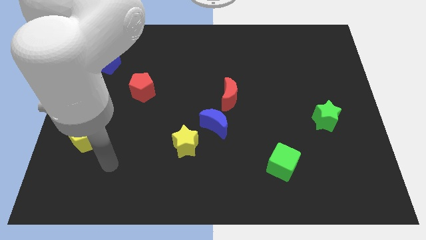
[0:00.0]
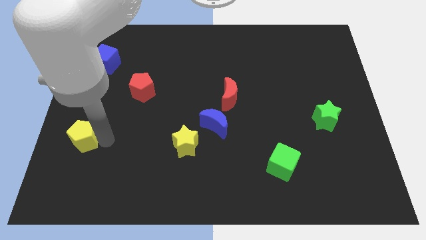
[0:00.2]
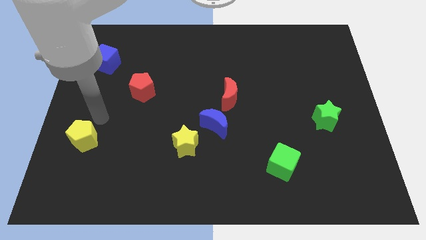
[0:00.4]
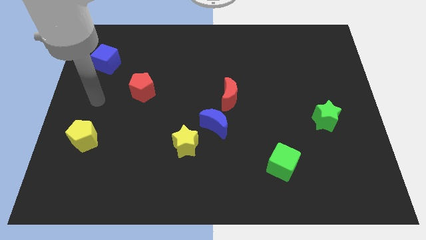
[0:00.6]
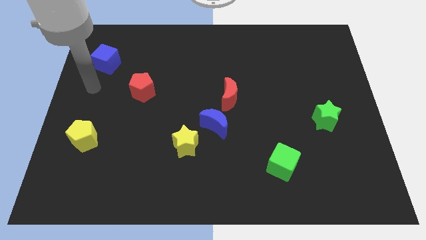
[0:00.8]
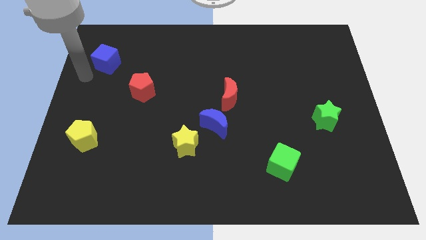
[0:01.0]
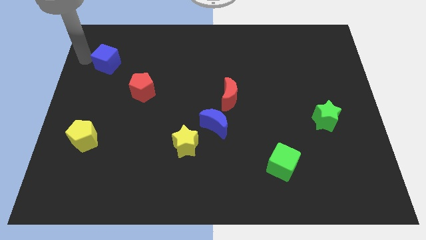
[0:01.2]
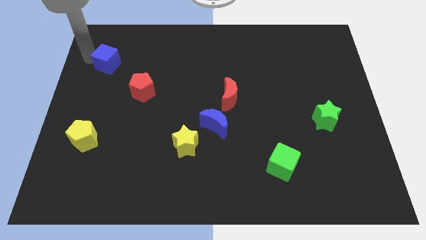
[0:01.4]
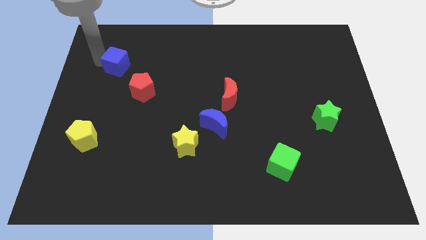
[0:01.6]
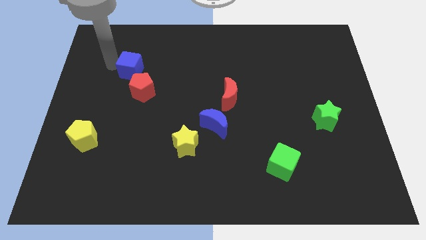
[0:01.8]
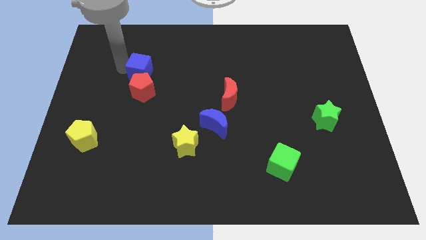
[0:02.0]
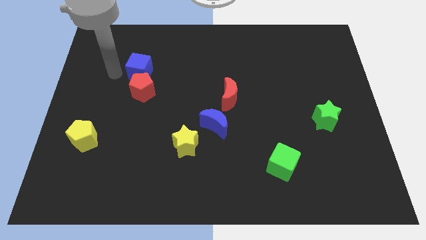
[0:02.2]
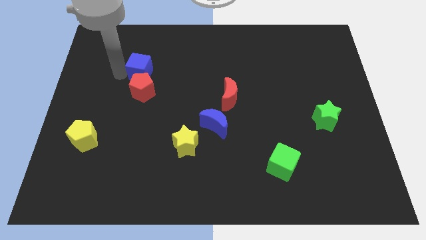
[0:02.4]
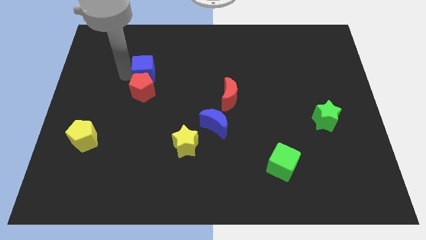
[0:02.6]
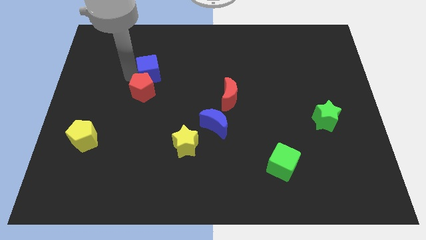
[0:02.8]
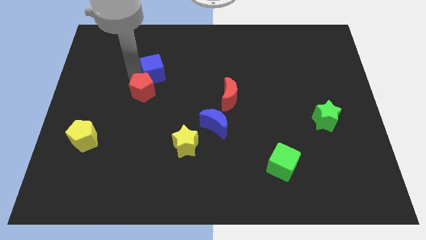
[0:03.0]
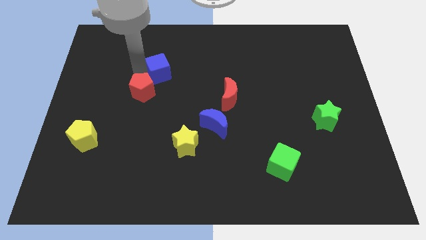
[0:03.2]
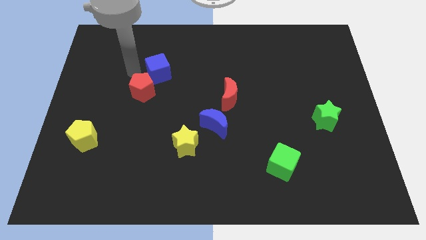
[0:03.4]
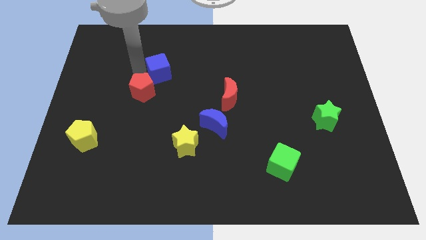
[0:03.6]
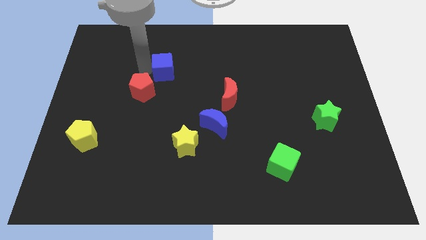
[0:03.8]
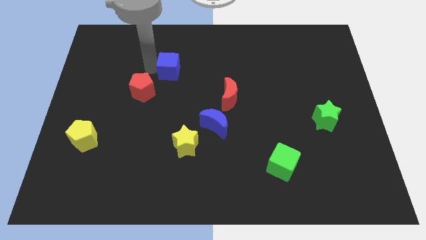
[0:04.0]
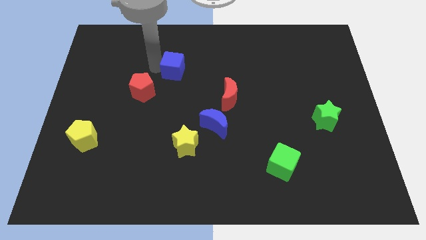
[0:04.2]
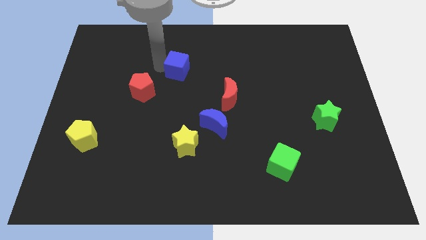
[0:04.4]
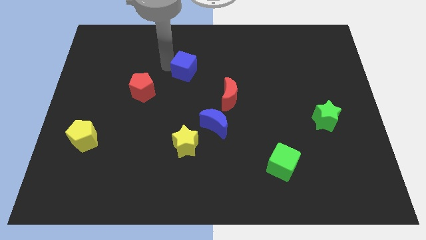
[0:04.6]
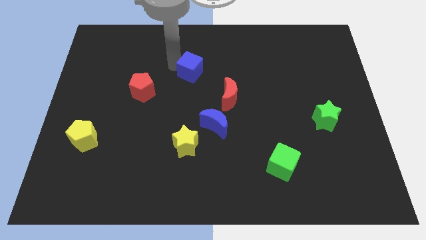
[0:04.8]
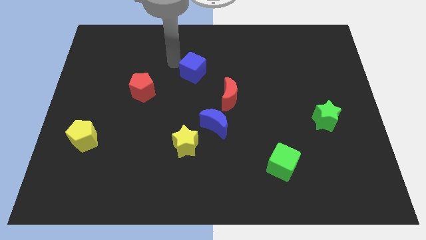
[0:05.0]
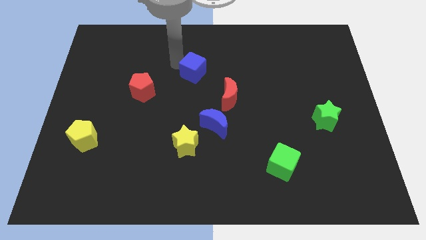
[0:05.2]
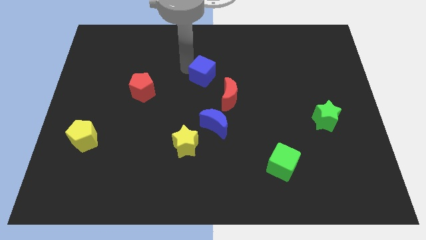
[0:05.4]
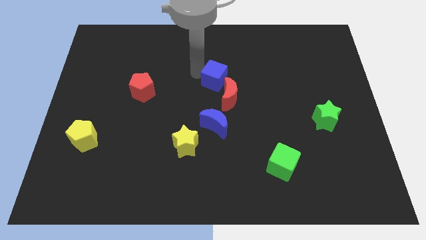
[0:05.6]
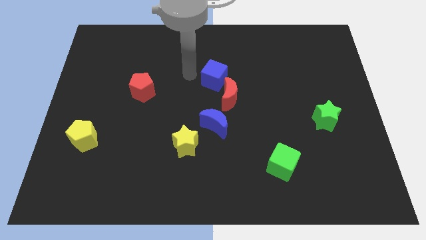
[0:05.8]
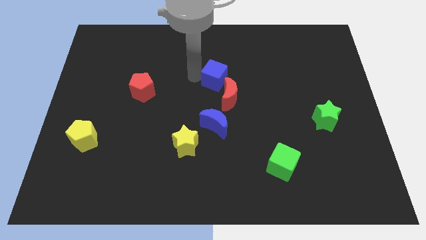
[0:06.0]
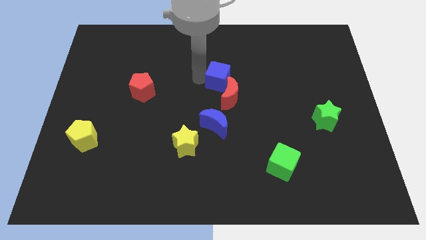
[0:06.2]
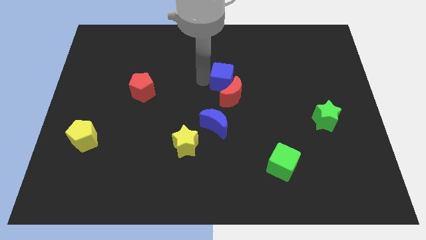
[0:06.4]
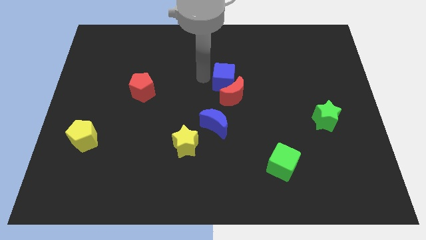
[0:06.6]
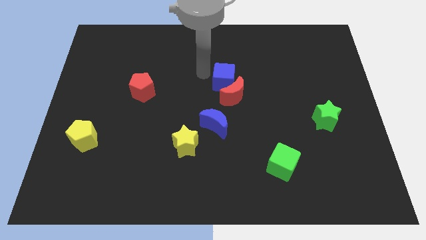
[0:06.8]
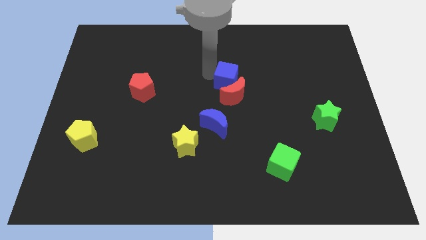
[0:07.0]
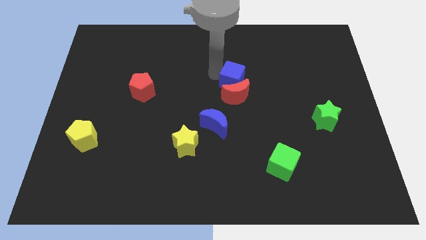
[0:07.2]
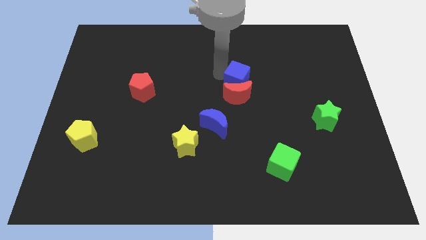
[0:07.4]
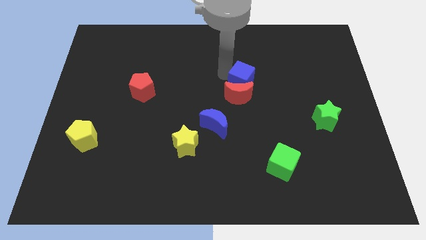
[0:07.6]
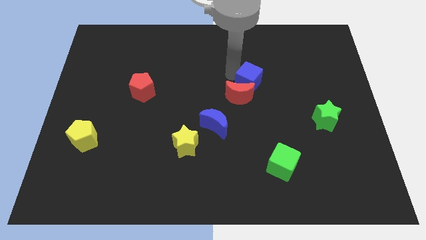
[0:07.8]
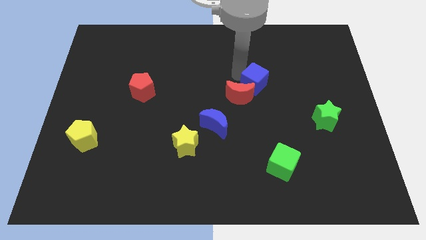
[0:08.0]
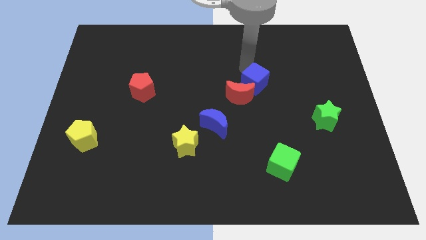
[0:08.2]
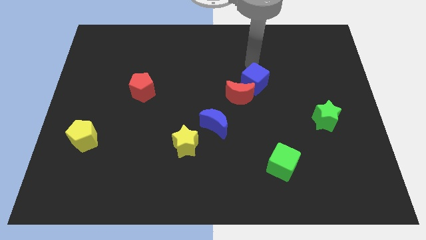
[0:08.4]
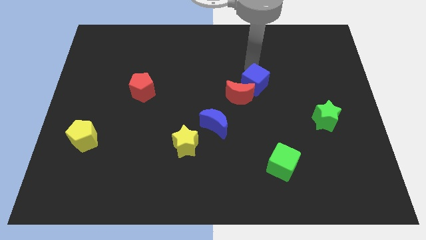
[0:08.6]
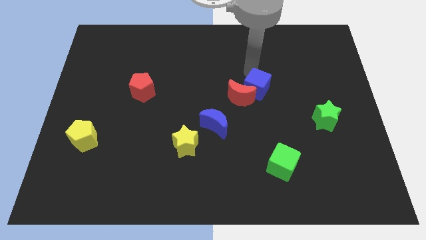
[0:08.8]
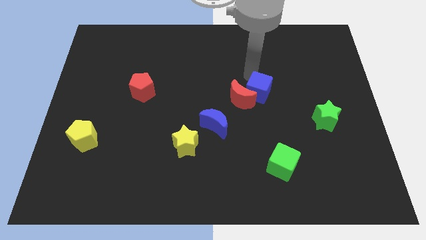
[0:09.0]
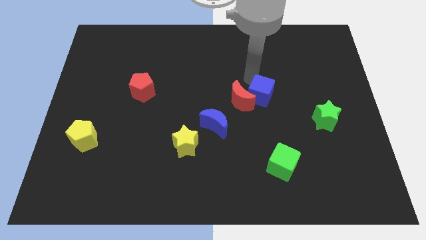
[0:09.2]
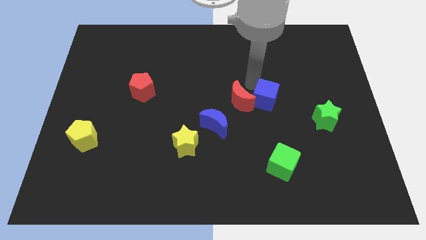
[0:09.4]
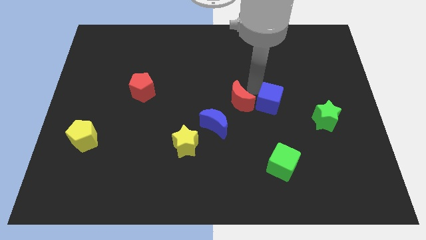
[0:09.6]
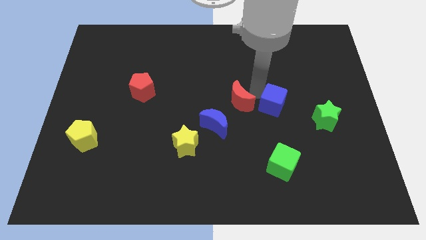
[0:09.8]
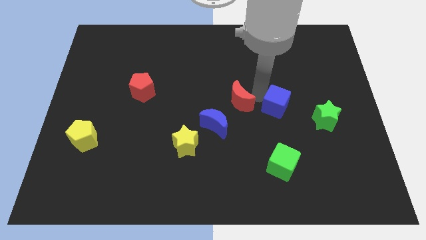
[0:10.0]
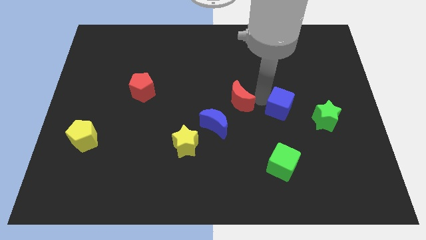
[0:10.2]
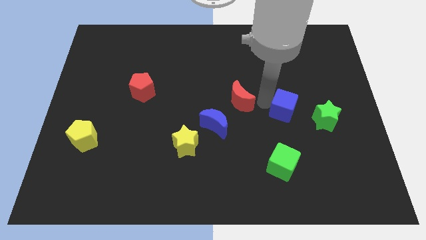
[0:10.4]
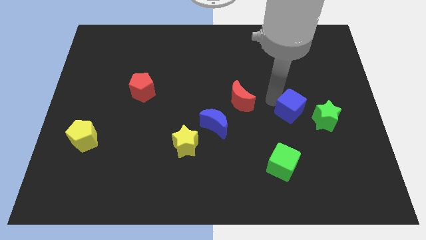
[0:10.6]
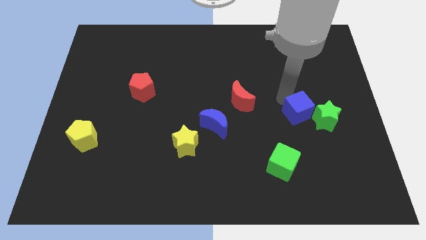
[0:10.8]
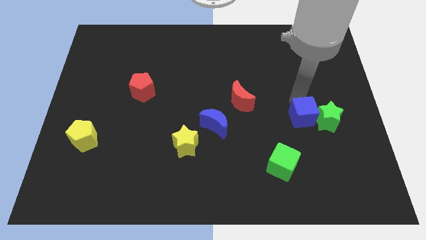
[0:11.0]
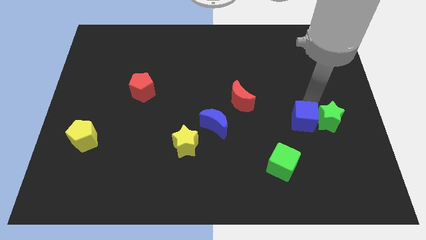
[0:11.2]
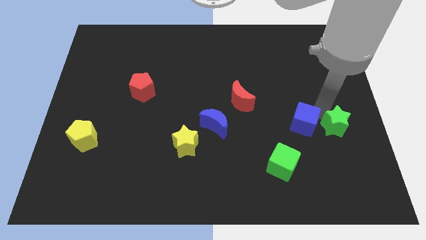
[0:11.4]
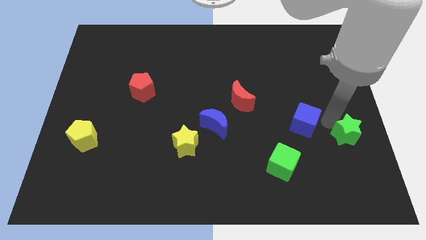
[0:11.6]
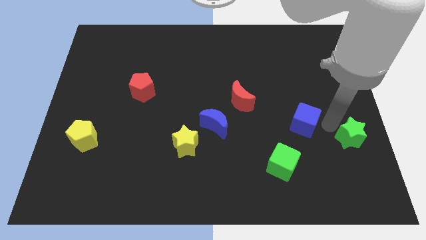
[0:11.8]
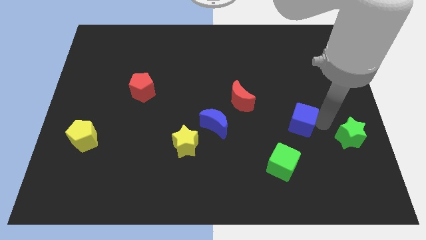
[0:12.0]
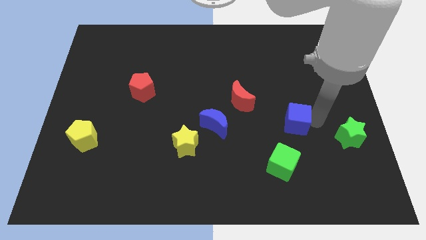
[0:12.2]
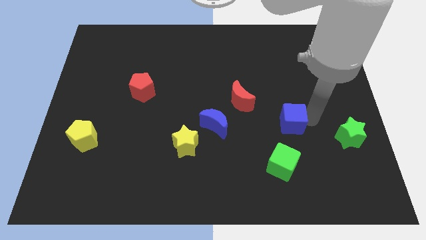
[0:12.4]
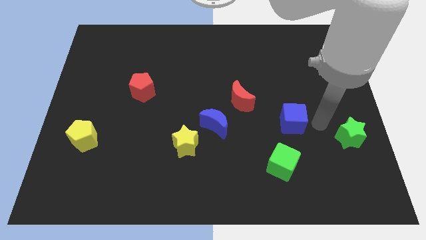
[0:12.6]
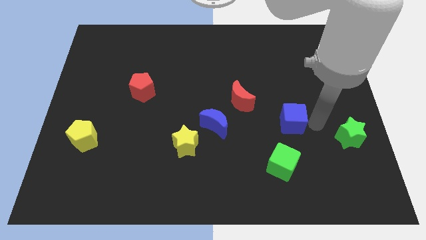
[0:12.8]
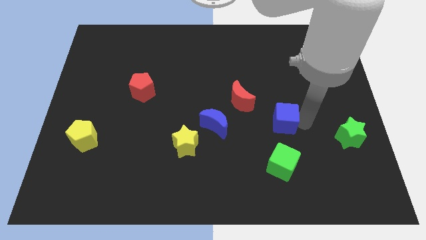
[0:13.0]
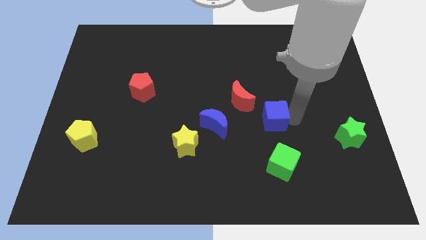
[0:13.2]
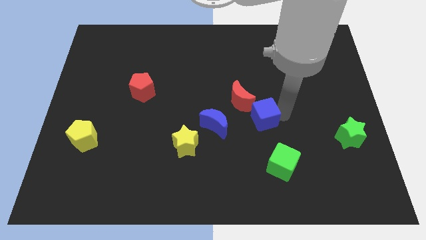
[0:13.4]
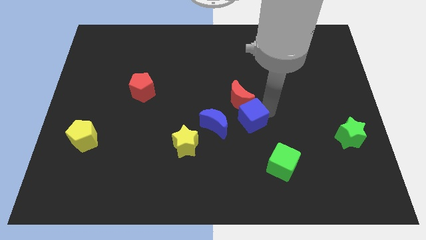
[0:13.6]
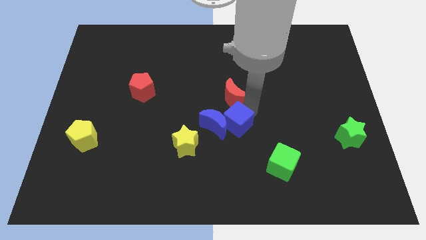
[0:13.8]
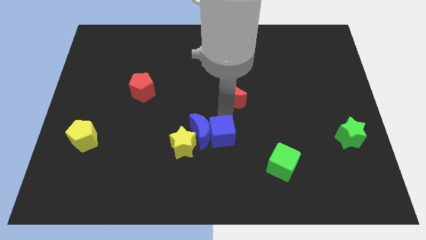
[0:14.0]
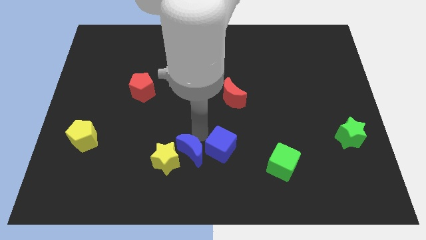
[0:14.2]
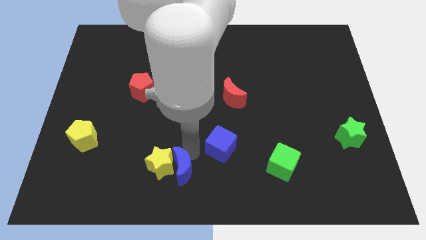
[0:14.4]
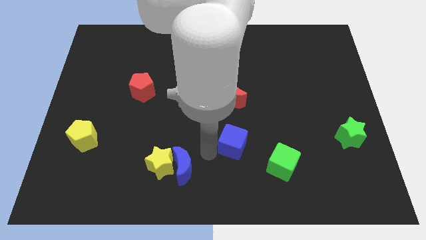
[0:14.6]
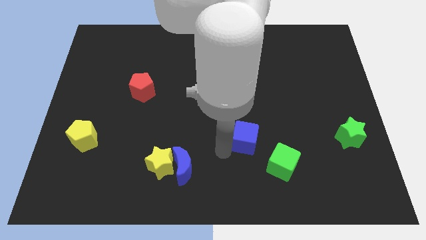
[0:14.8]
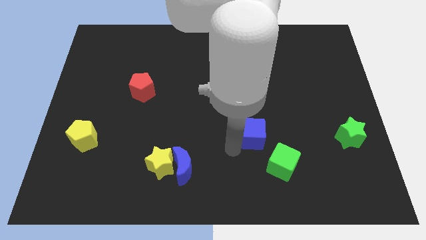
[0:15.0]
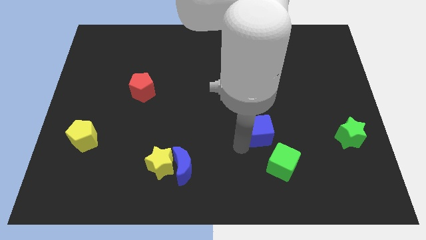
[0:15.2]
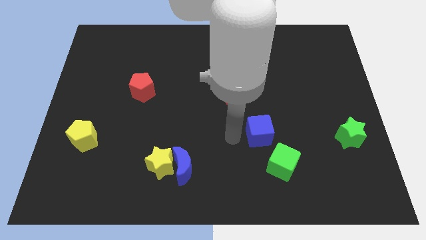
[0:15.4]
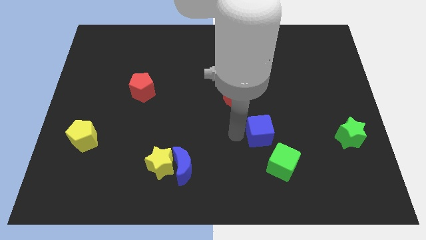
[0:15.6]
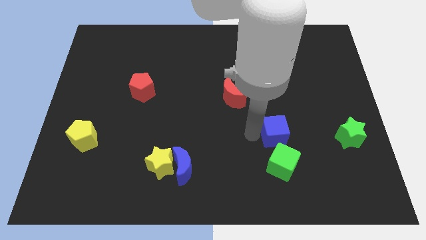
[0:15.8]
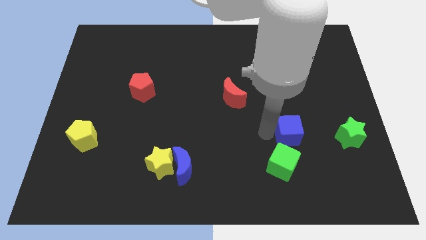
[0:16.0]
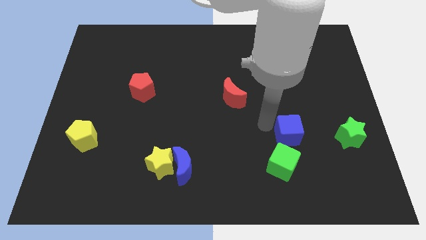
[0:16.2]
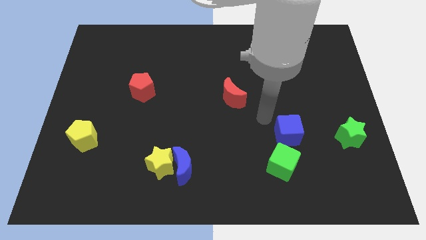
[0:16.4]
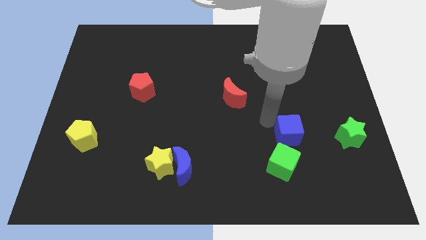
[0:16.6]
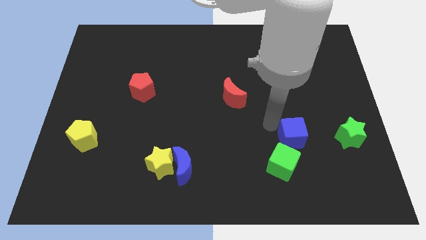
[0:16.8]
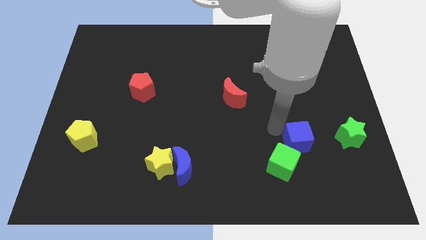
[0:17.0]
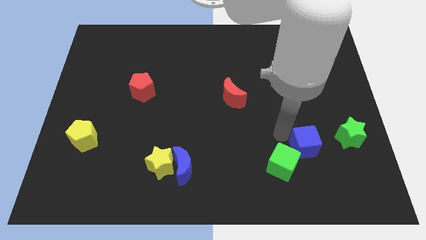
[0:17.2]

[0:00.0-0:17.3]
put the blue cube just right of the green cube
